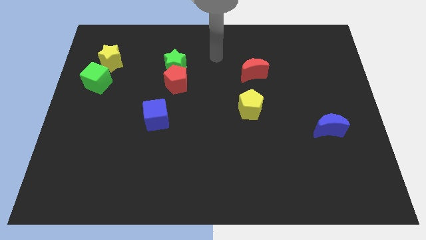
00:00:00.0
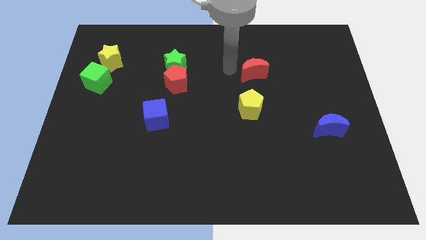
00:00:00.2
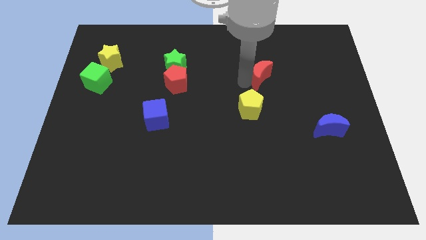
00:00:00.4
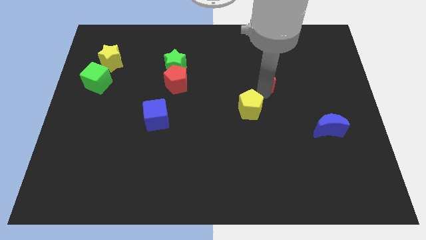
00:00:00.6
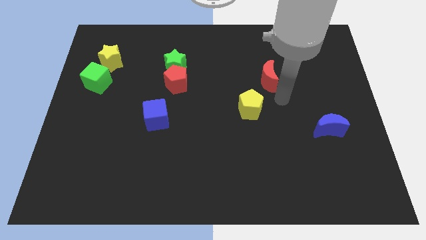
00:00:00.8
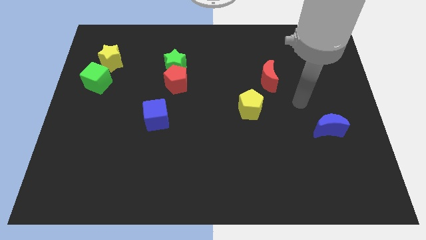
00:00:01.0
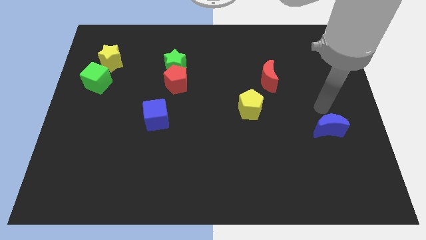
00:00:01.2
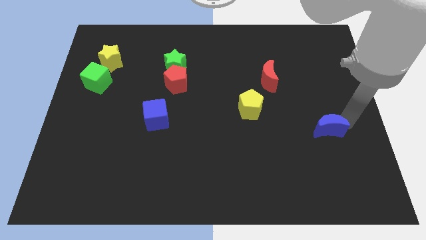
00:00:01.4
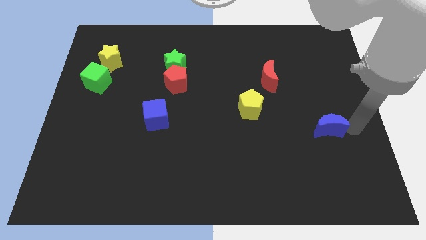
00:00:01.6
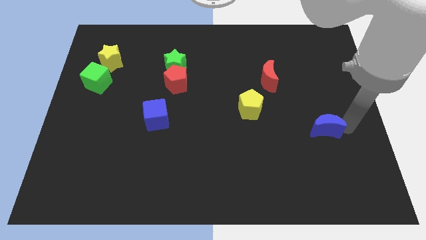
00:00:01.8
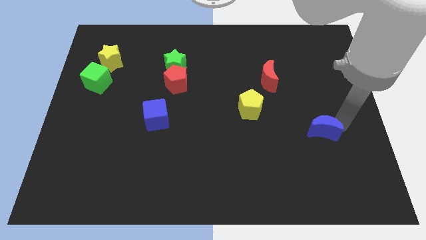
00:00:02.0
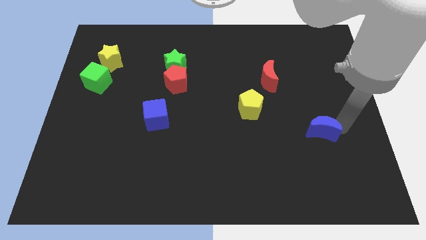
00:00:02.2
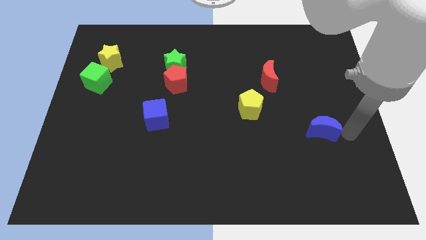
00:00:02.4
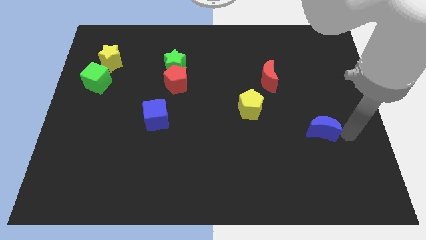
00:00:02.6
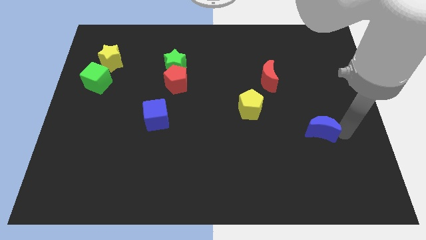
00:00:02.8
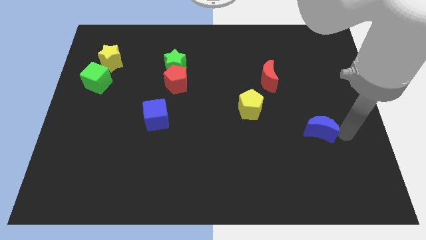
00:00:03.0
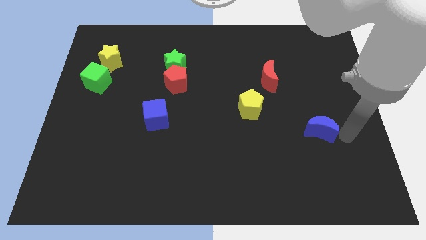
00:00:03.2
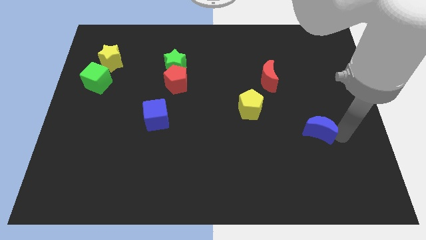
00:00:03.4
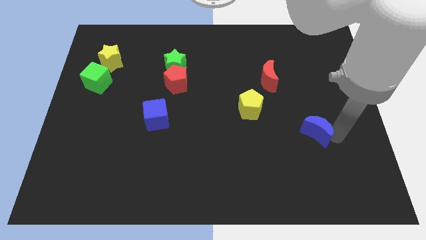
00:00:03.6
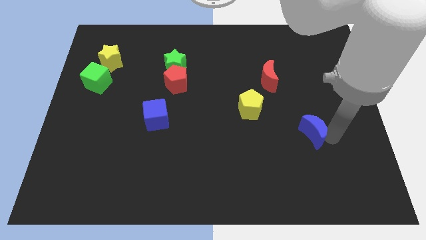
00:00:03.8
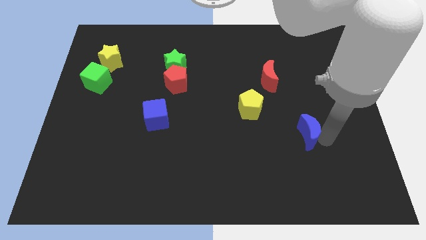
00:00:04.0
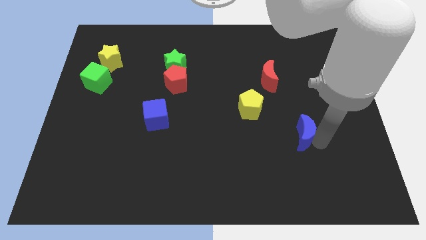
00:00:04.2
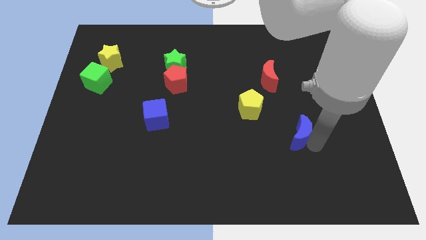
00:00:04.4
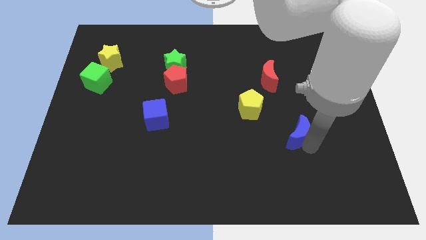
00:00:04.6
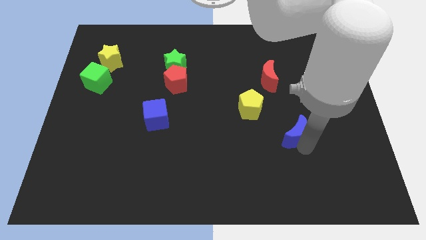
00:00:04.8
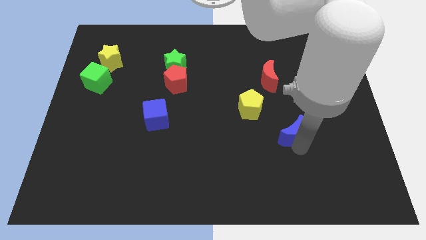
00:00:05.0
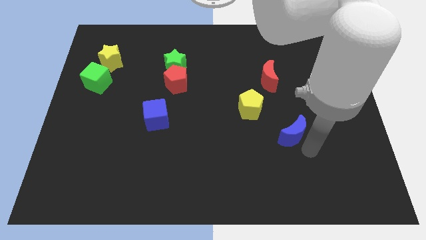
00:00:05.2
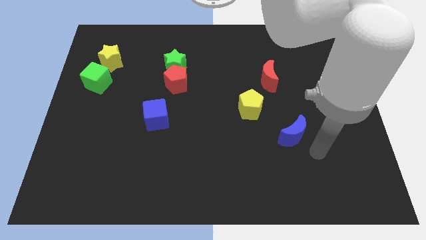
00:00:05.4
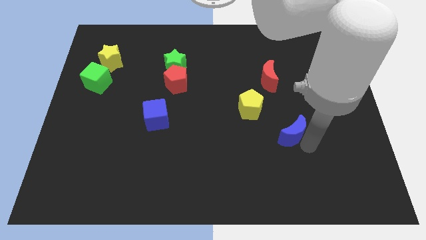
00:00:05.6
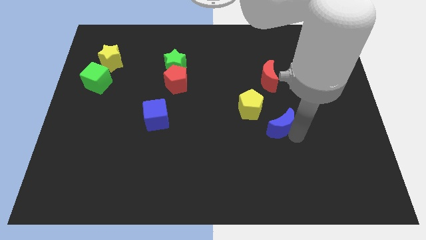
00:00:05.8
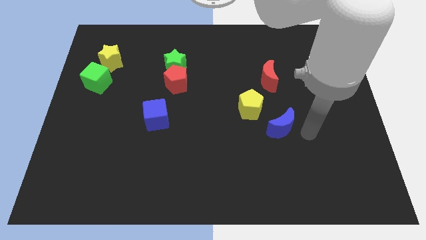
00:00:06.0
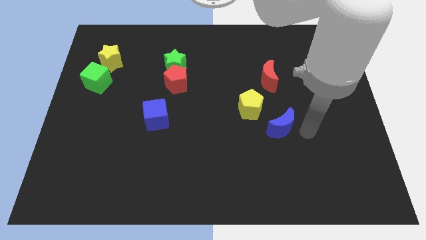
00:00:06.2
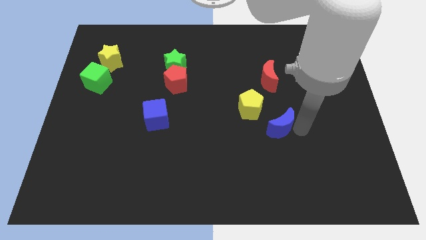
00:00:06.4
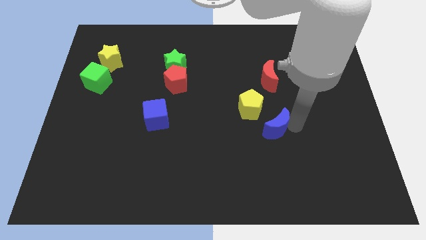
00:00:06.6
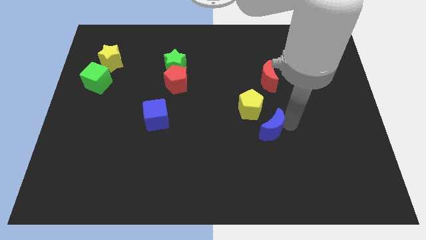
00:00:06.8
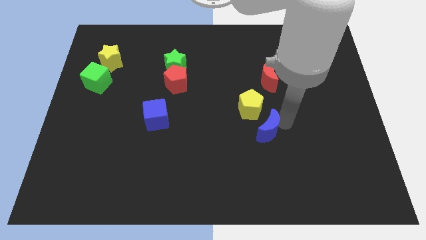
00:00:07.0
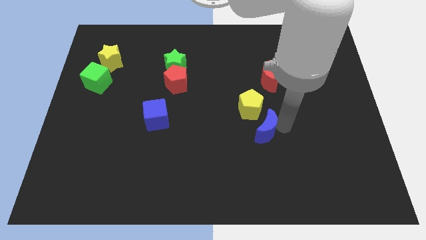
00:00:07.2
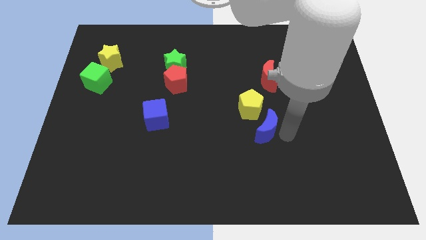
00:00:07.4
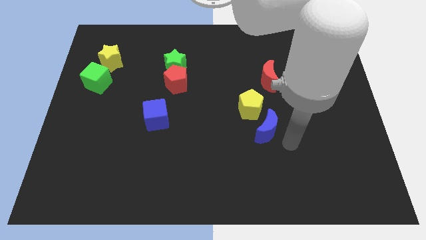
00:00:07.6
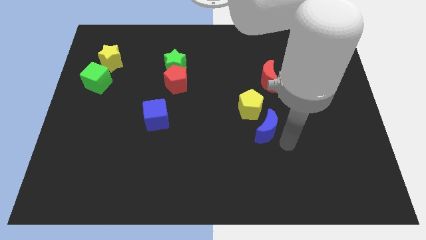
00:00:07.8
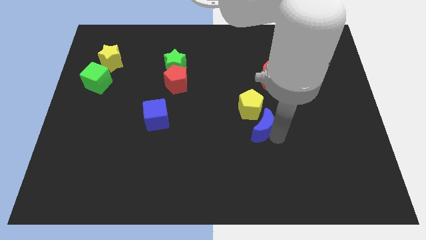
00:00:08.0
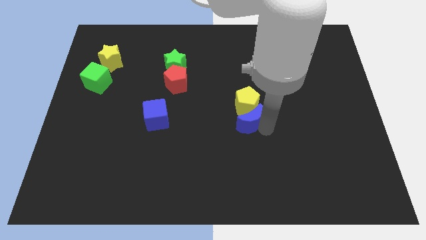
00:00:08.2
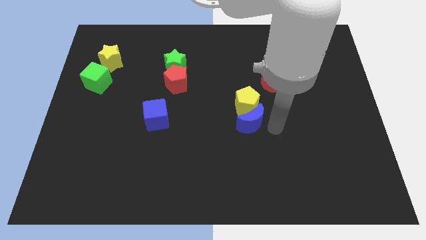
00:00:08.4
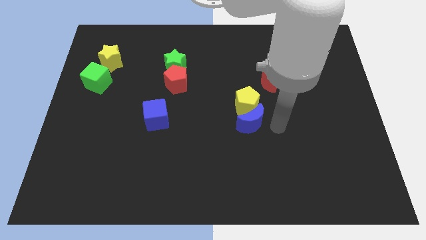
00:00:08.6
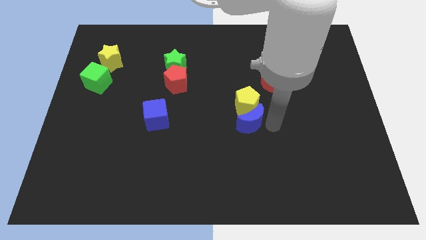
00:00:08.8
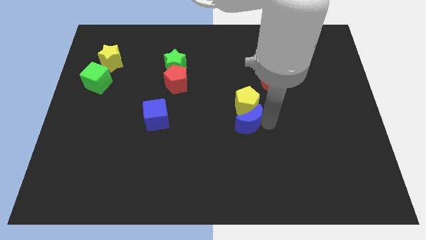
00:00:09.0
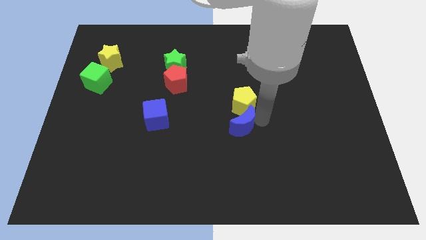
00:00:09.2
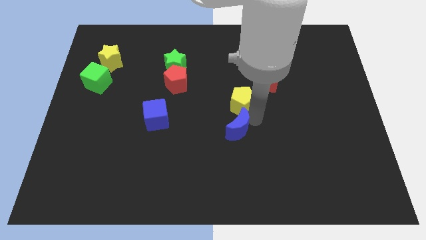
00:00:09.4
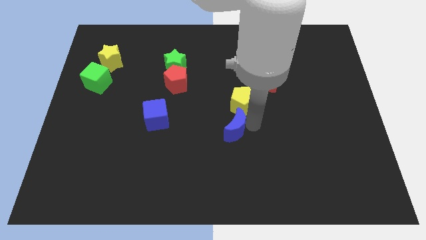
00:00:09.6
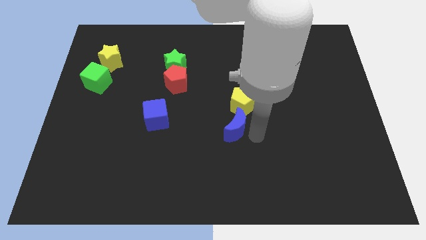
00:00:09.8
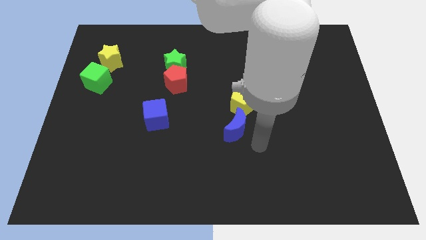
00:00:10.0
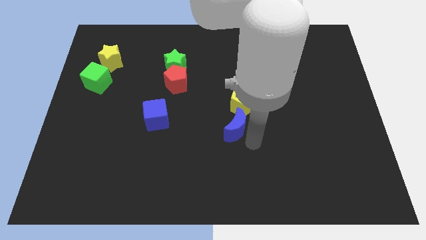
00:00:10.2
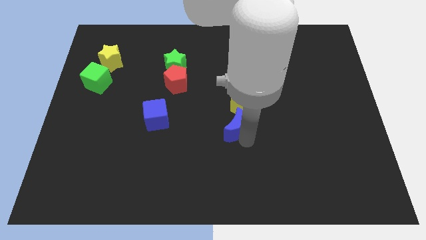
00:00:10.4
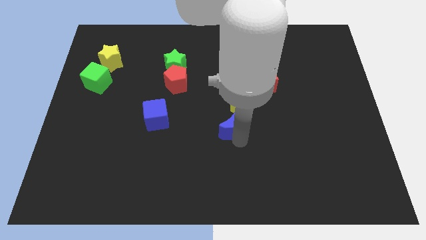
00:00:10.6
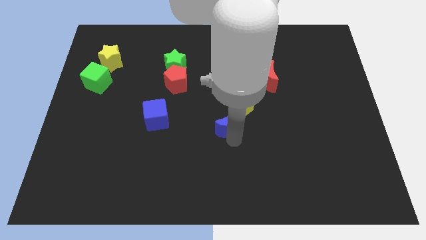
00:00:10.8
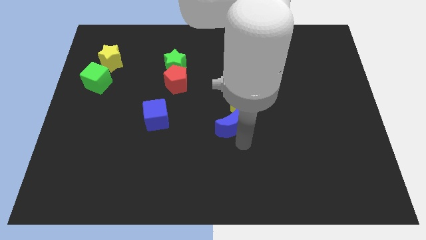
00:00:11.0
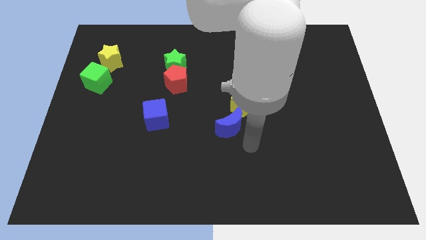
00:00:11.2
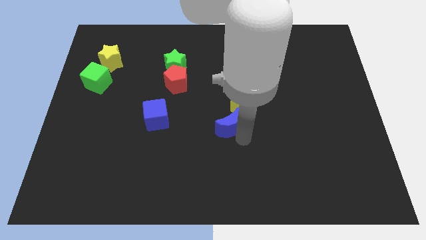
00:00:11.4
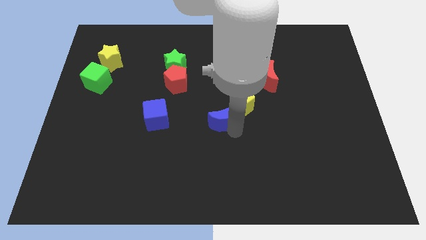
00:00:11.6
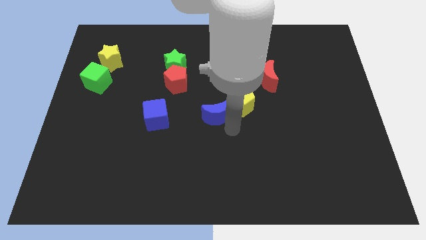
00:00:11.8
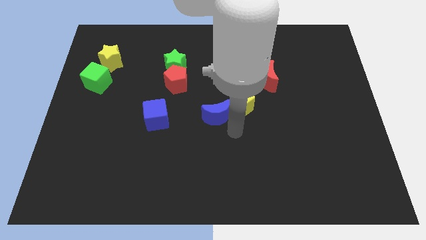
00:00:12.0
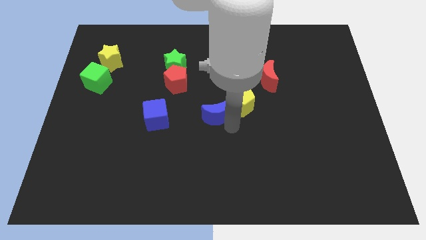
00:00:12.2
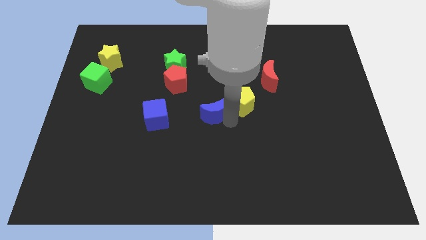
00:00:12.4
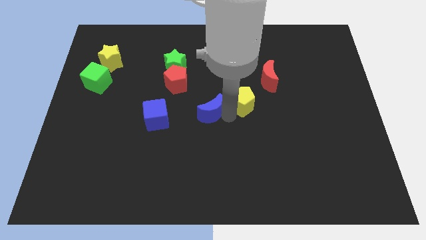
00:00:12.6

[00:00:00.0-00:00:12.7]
put the blue moon diagonally down and to the right of the red pentagon

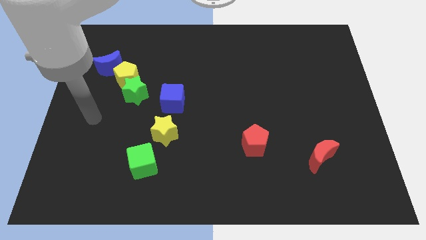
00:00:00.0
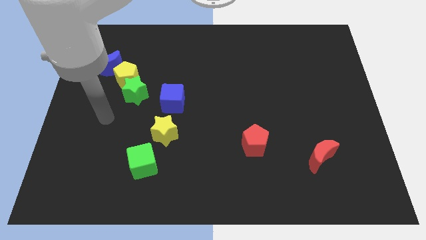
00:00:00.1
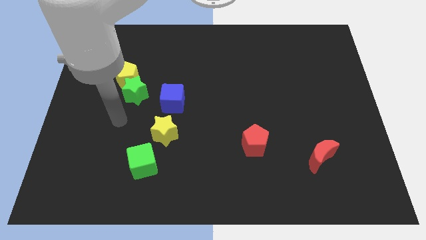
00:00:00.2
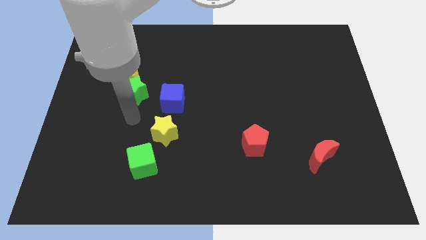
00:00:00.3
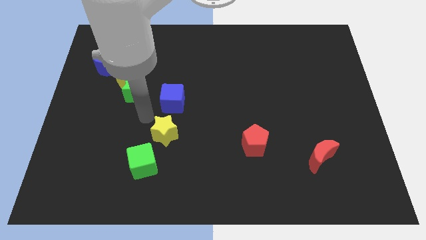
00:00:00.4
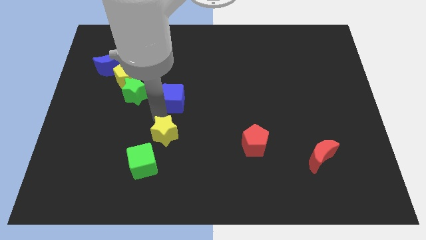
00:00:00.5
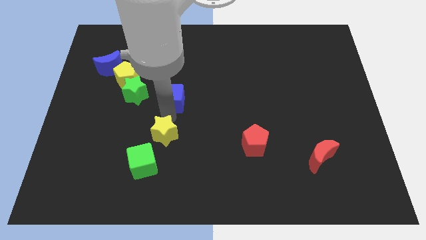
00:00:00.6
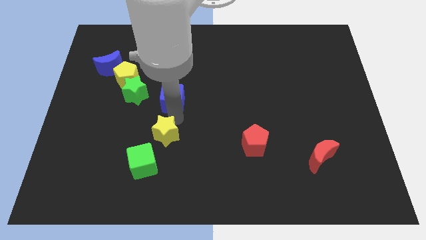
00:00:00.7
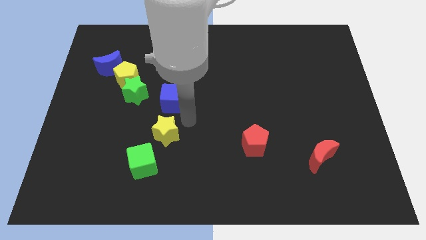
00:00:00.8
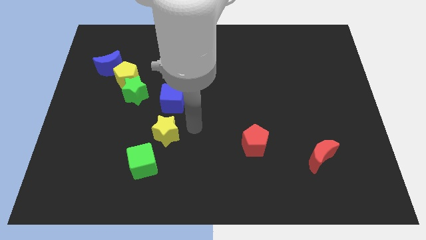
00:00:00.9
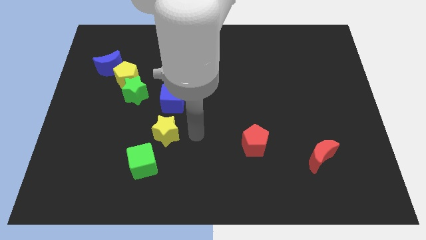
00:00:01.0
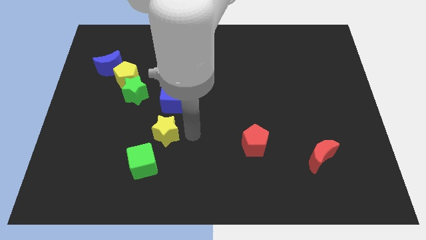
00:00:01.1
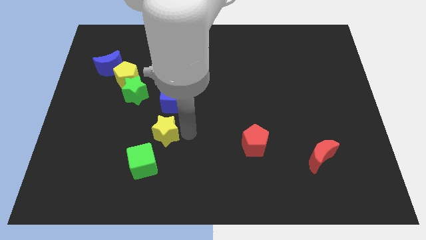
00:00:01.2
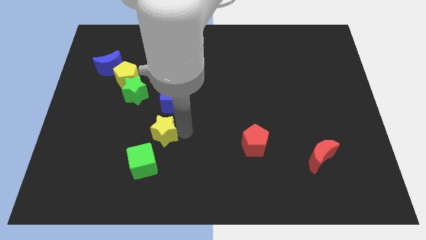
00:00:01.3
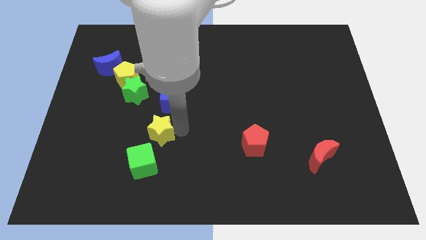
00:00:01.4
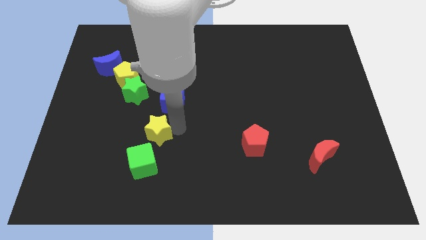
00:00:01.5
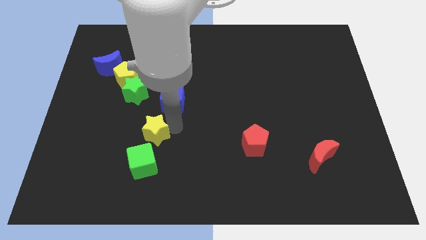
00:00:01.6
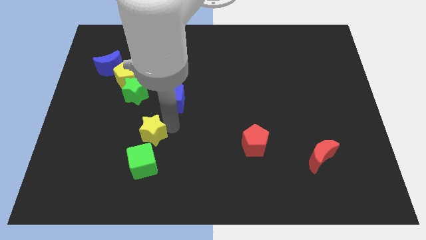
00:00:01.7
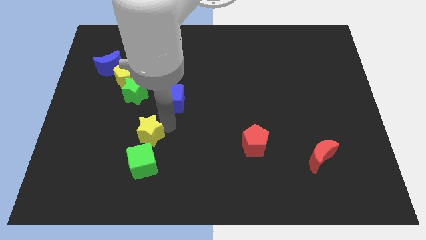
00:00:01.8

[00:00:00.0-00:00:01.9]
move the yellow star below the green star
